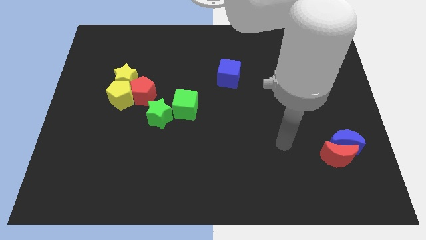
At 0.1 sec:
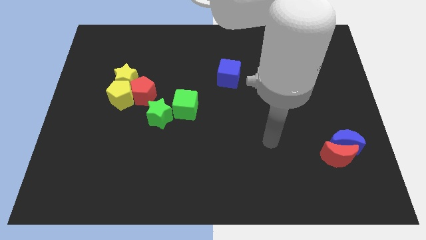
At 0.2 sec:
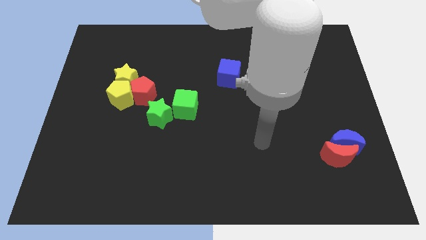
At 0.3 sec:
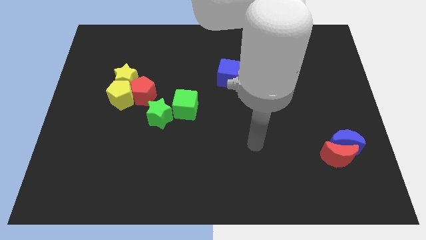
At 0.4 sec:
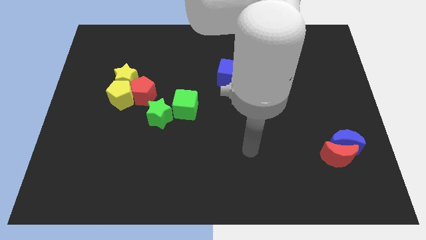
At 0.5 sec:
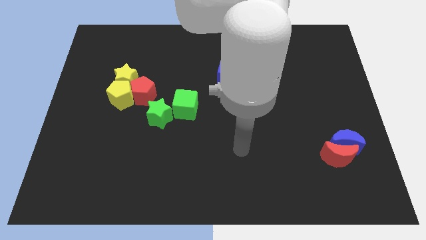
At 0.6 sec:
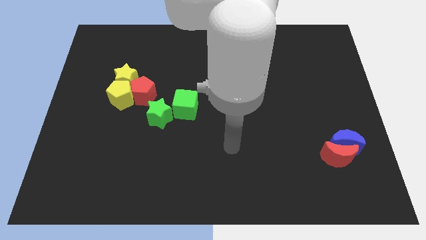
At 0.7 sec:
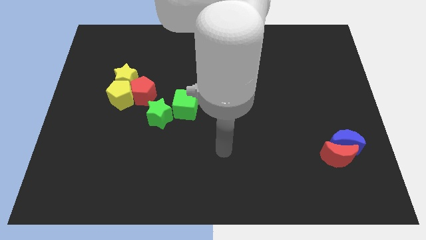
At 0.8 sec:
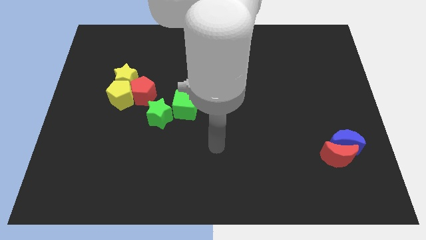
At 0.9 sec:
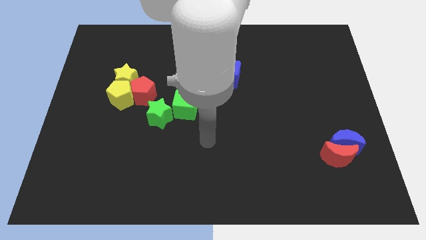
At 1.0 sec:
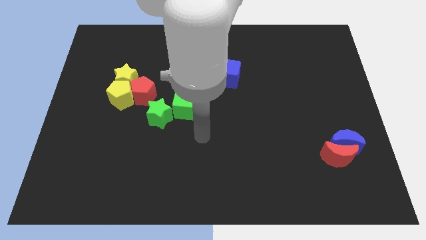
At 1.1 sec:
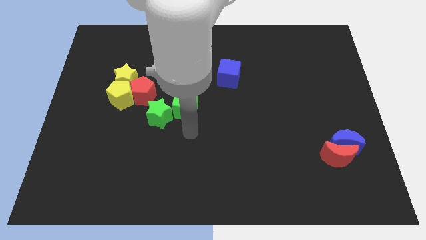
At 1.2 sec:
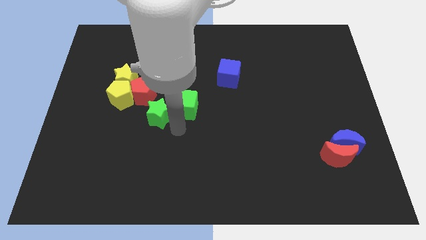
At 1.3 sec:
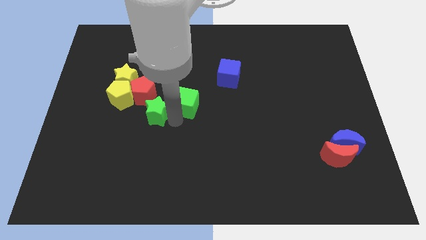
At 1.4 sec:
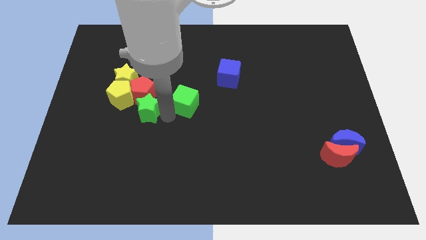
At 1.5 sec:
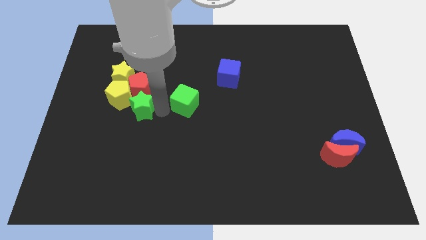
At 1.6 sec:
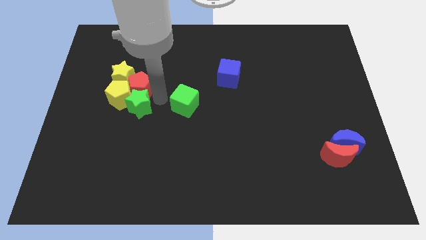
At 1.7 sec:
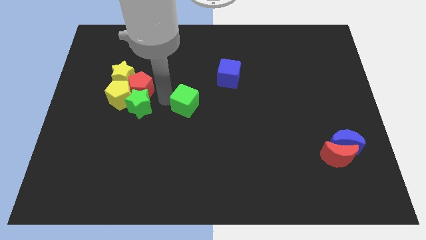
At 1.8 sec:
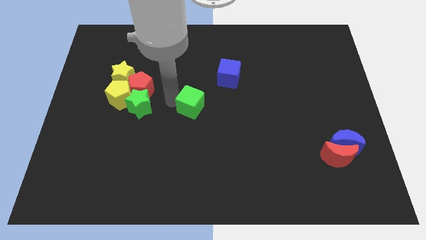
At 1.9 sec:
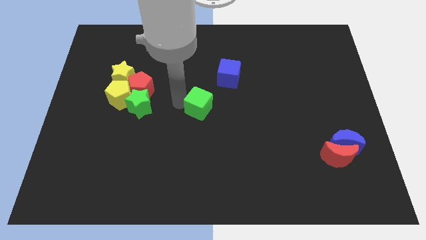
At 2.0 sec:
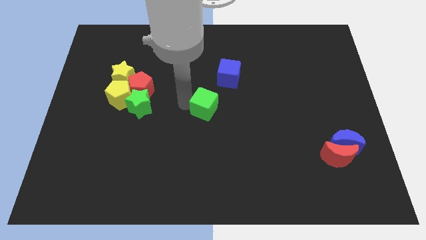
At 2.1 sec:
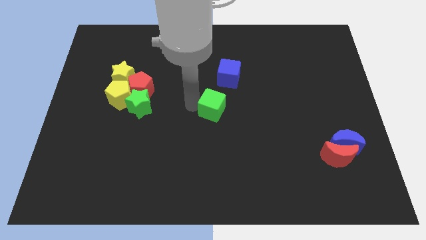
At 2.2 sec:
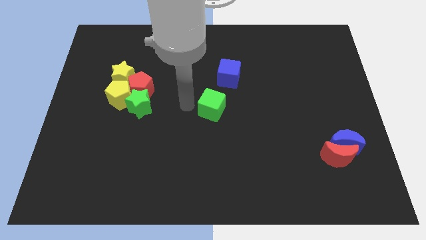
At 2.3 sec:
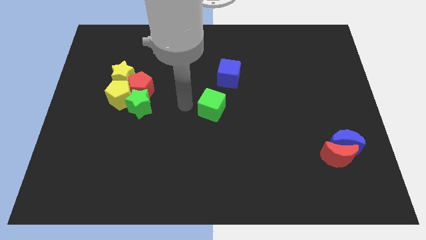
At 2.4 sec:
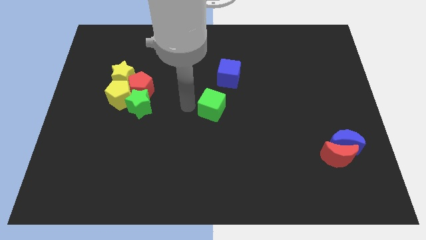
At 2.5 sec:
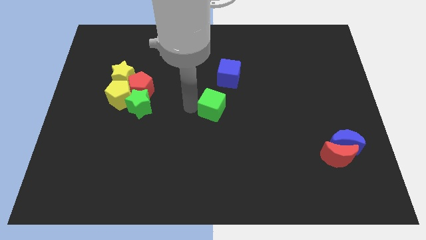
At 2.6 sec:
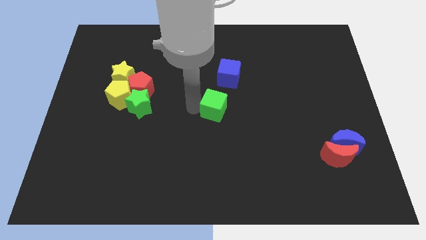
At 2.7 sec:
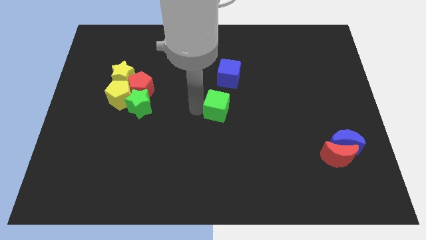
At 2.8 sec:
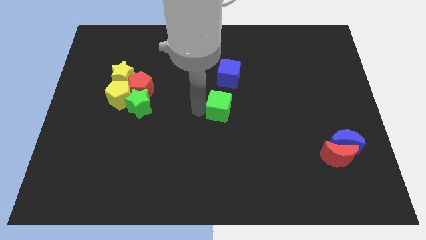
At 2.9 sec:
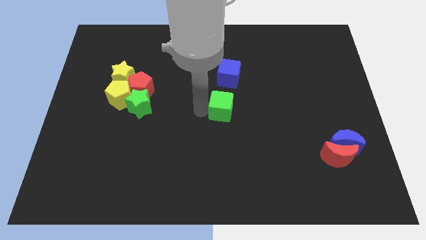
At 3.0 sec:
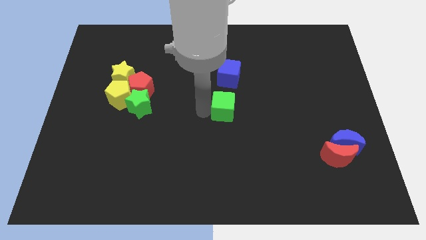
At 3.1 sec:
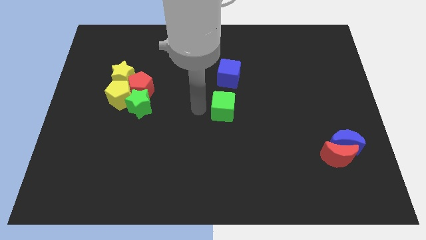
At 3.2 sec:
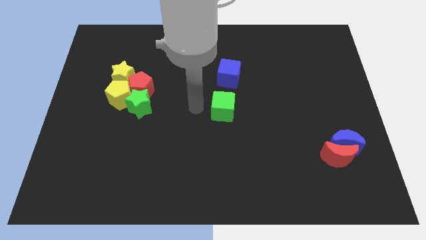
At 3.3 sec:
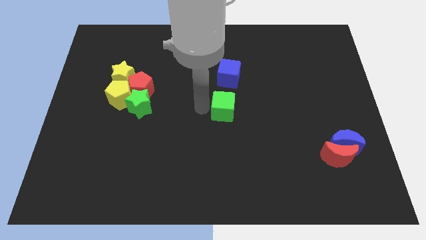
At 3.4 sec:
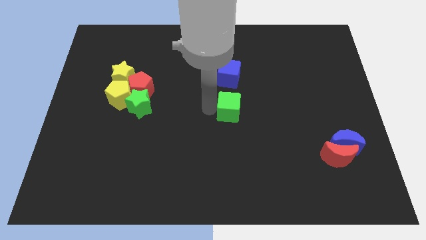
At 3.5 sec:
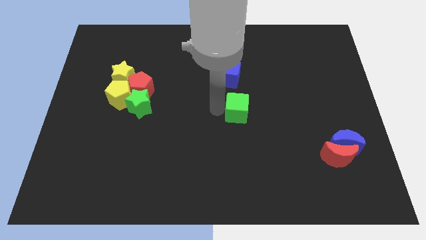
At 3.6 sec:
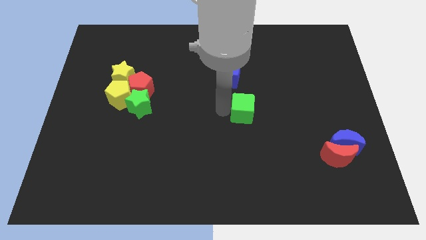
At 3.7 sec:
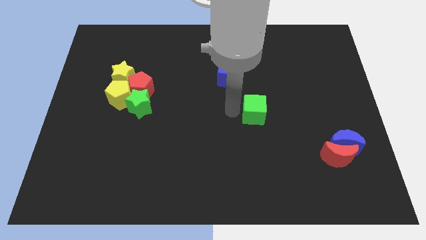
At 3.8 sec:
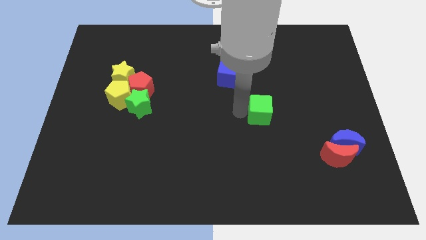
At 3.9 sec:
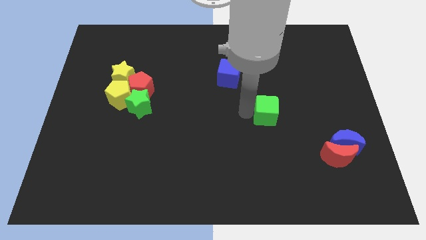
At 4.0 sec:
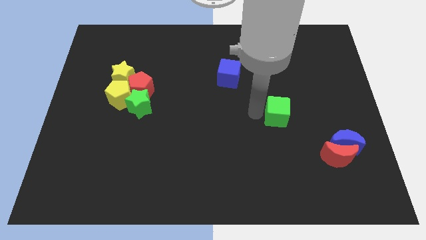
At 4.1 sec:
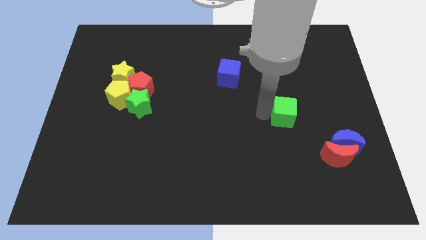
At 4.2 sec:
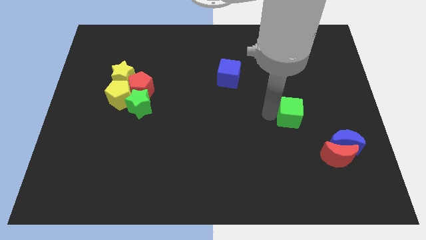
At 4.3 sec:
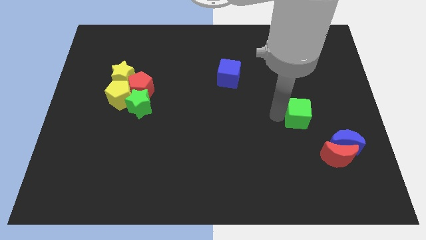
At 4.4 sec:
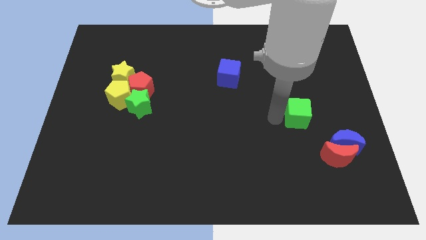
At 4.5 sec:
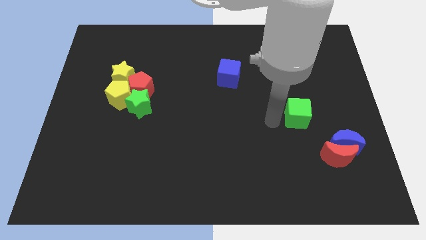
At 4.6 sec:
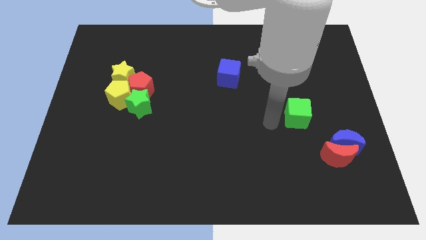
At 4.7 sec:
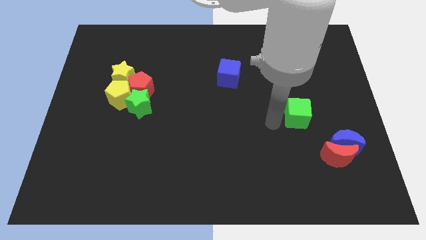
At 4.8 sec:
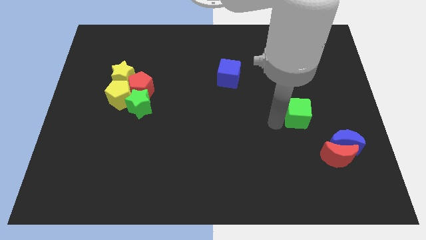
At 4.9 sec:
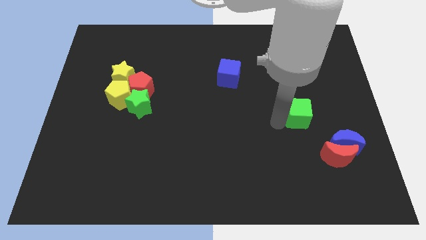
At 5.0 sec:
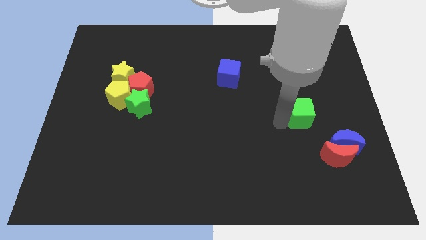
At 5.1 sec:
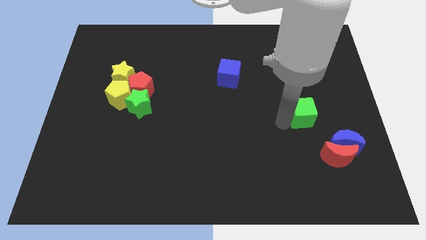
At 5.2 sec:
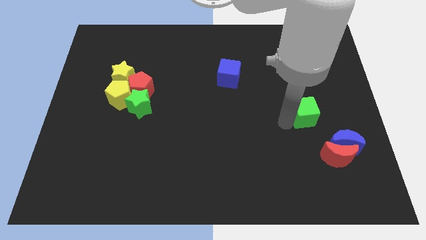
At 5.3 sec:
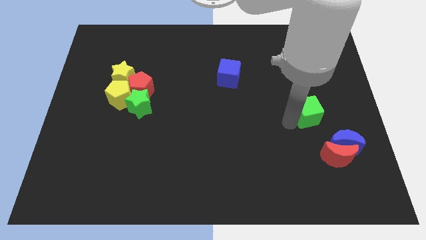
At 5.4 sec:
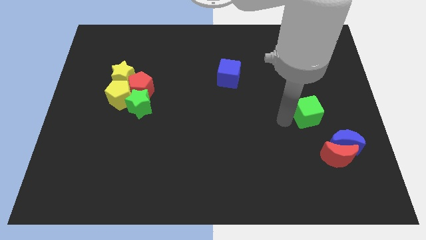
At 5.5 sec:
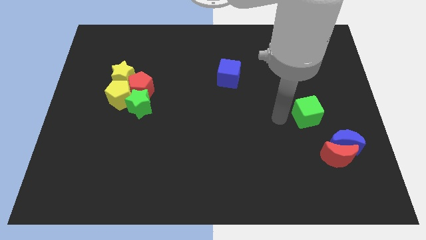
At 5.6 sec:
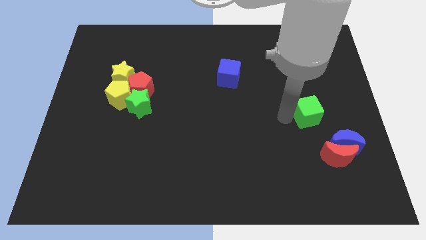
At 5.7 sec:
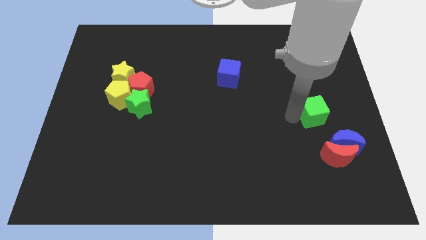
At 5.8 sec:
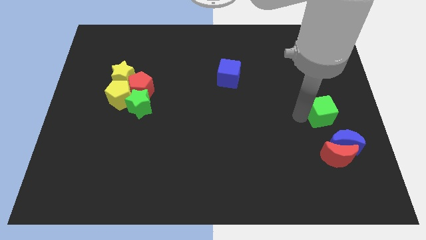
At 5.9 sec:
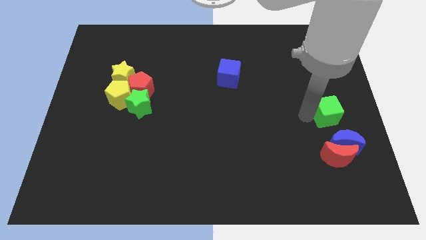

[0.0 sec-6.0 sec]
push the green cube to the right side of the board

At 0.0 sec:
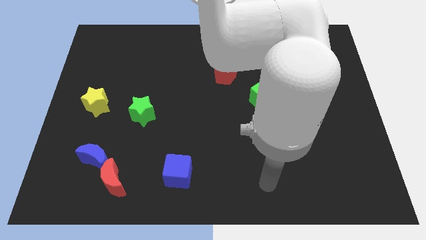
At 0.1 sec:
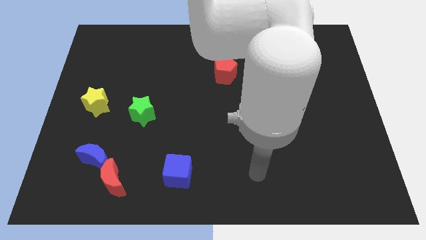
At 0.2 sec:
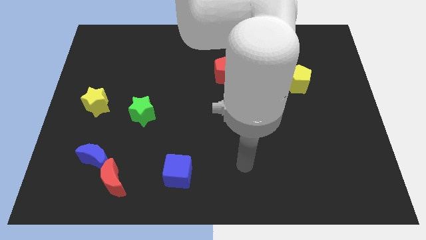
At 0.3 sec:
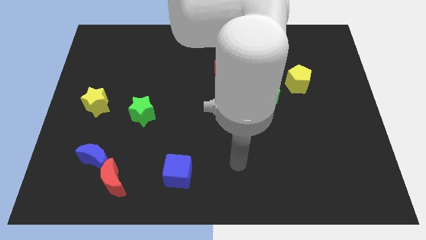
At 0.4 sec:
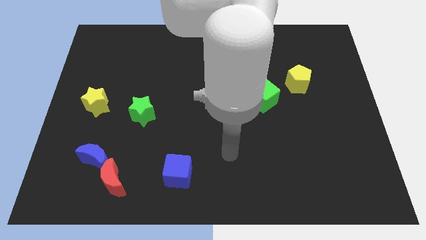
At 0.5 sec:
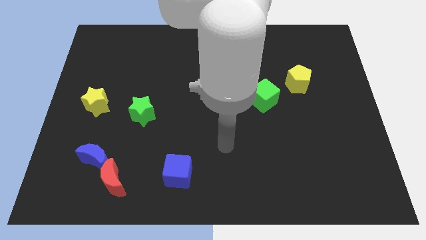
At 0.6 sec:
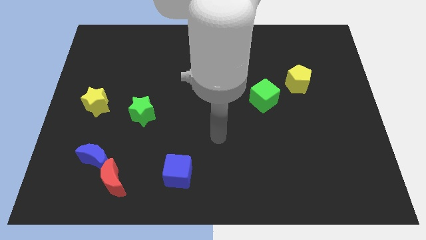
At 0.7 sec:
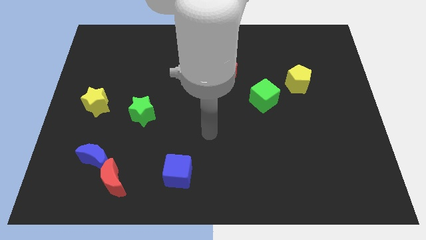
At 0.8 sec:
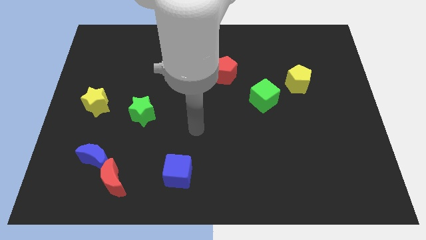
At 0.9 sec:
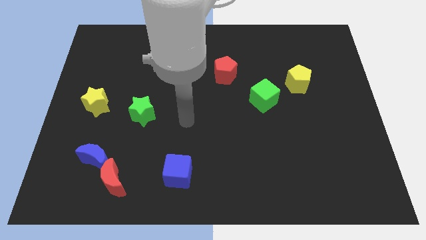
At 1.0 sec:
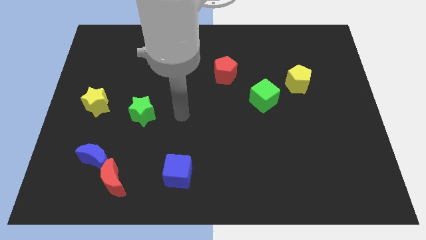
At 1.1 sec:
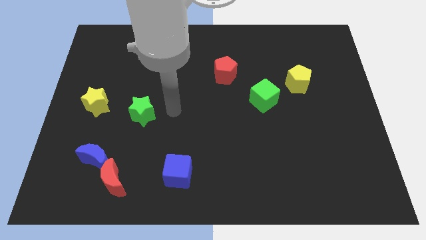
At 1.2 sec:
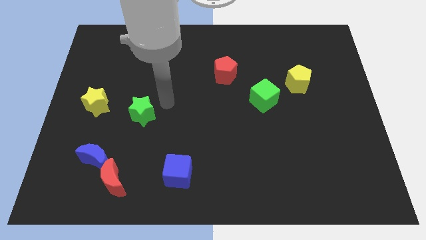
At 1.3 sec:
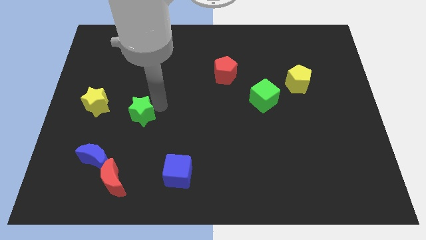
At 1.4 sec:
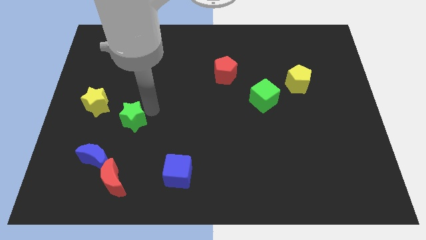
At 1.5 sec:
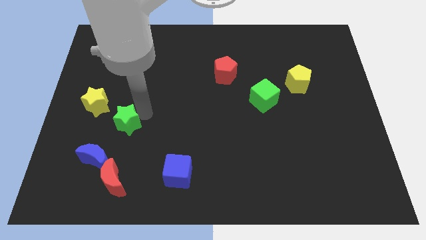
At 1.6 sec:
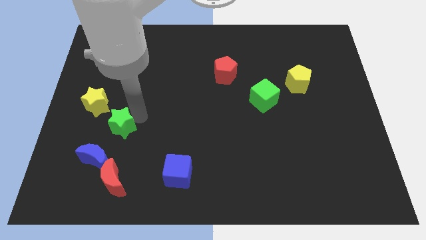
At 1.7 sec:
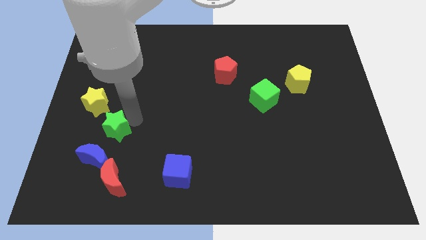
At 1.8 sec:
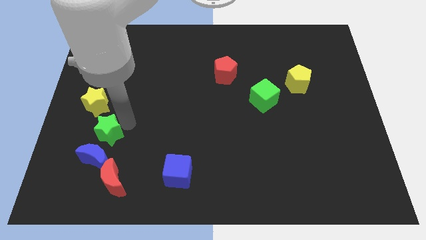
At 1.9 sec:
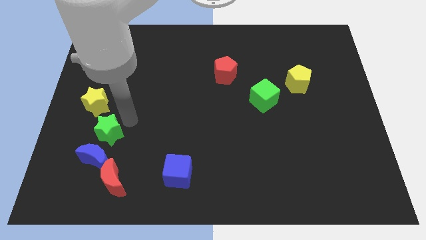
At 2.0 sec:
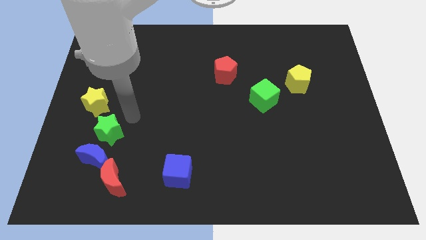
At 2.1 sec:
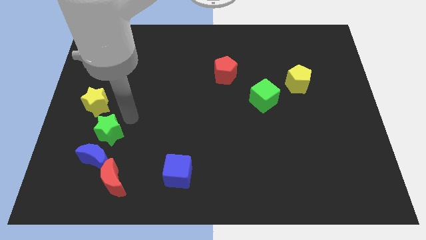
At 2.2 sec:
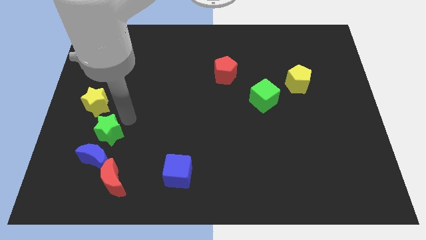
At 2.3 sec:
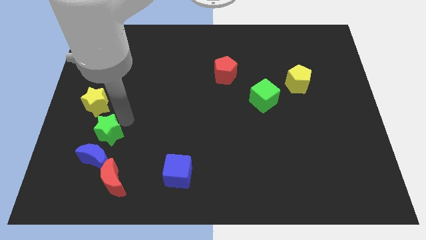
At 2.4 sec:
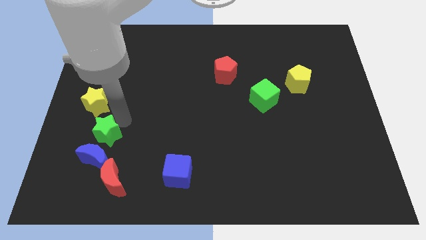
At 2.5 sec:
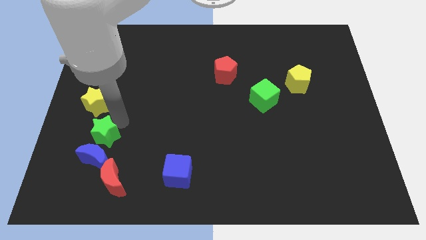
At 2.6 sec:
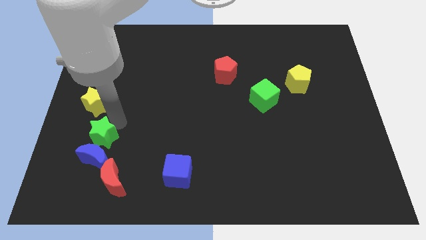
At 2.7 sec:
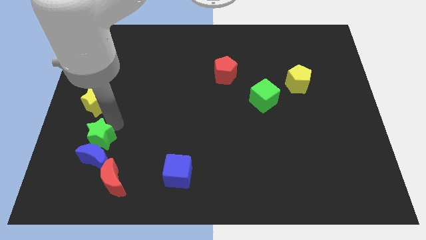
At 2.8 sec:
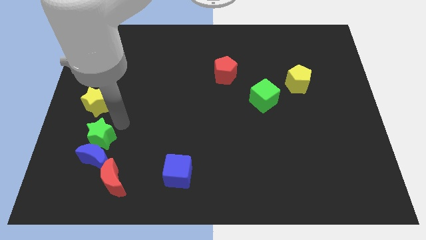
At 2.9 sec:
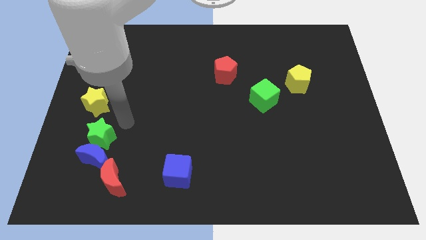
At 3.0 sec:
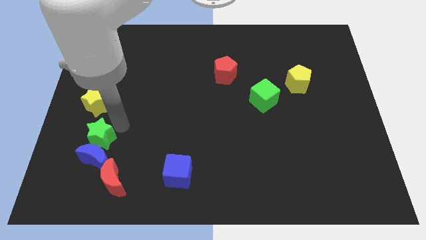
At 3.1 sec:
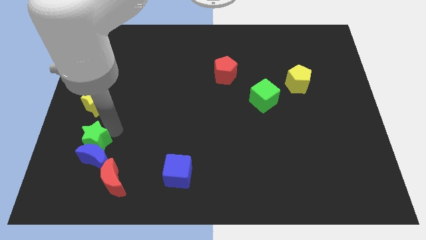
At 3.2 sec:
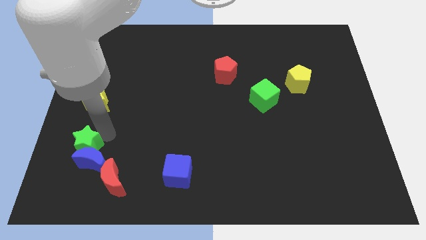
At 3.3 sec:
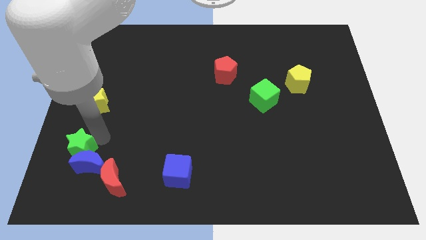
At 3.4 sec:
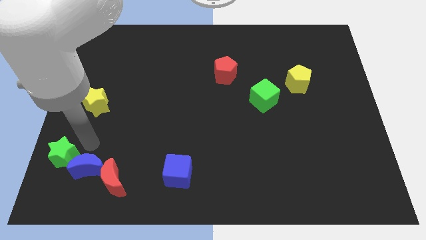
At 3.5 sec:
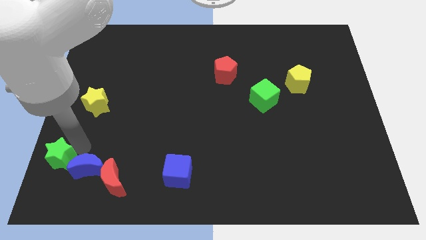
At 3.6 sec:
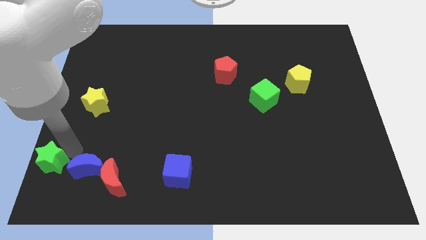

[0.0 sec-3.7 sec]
move the green star to the lower left corner
